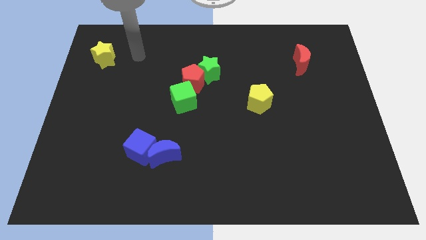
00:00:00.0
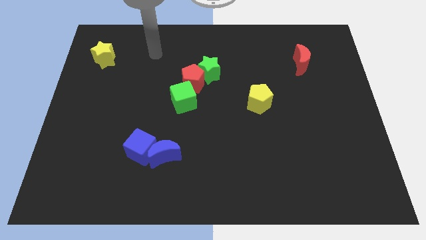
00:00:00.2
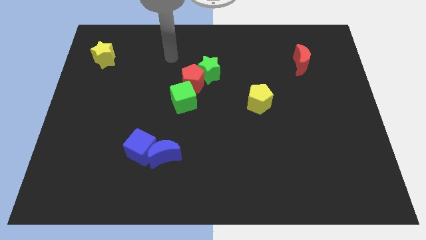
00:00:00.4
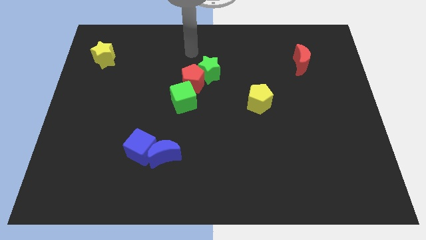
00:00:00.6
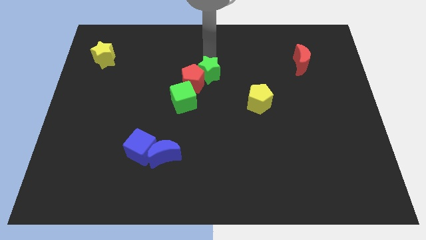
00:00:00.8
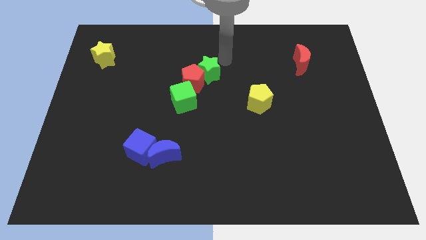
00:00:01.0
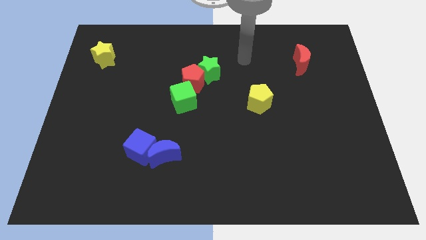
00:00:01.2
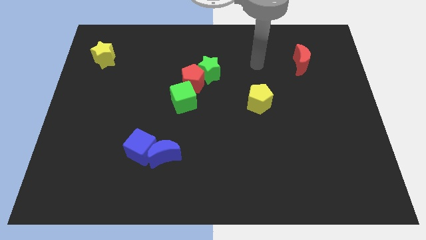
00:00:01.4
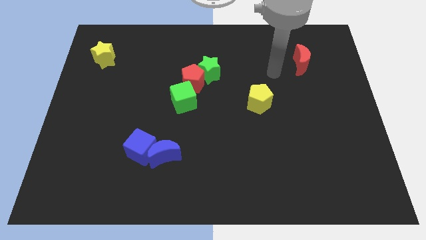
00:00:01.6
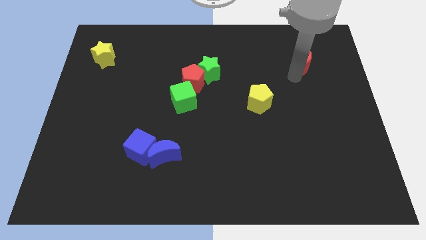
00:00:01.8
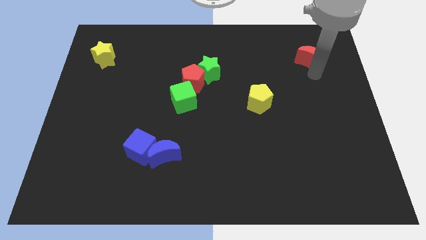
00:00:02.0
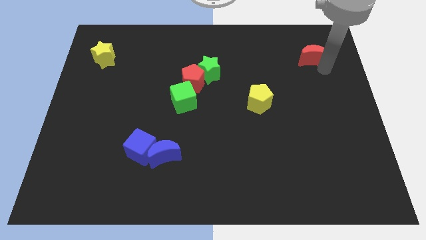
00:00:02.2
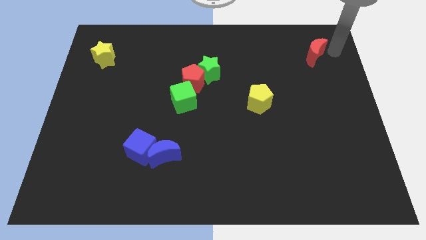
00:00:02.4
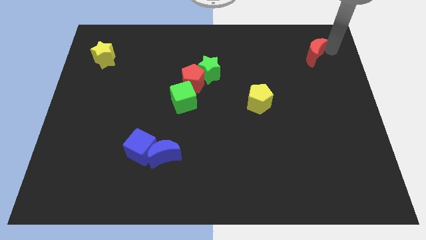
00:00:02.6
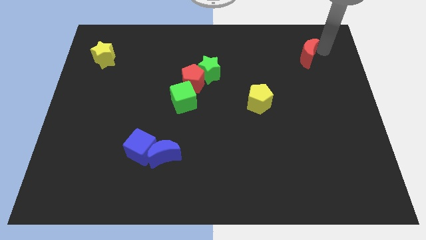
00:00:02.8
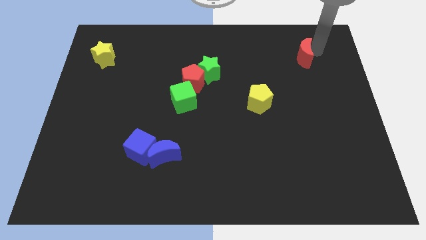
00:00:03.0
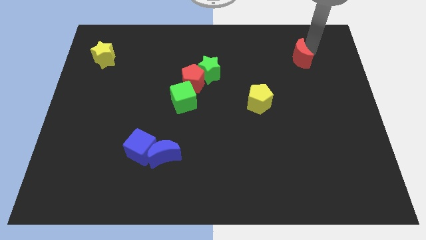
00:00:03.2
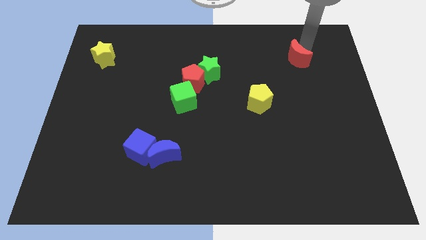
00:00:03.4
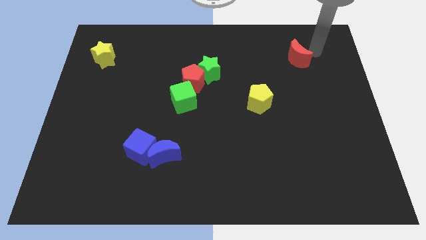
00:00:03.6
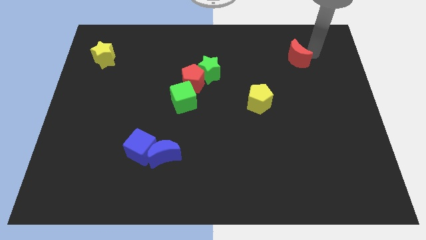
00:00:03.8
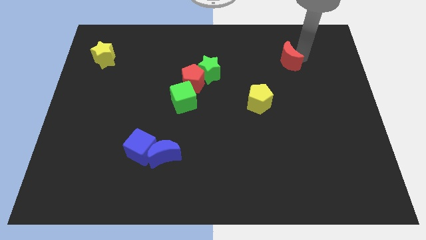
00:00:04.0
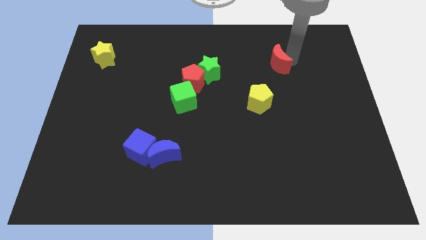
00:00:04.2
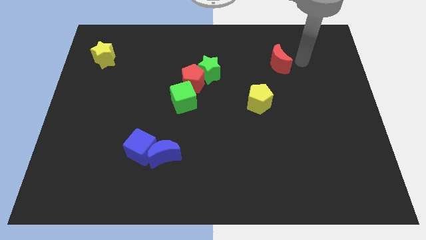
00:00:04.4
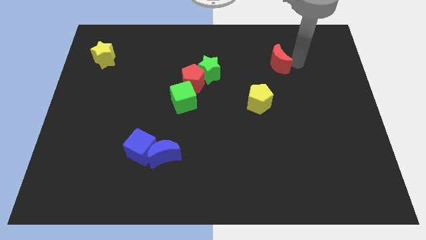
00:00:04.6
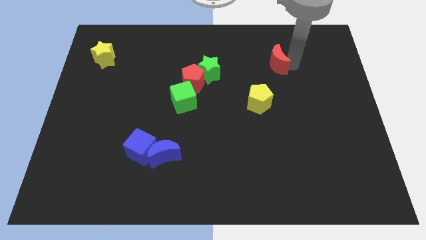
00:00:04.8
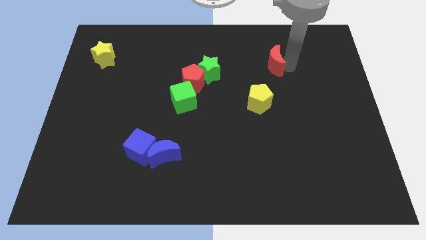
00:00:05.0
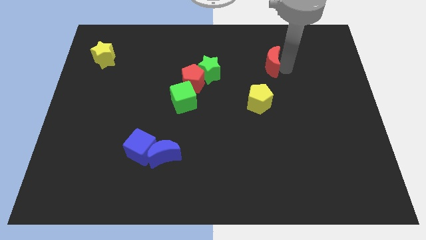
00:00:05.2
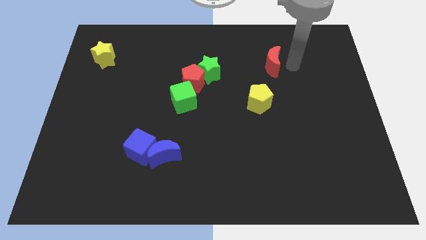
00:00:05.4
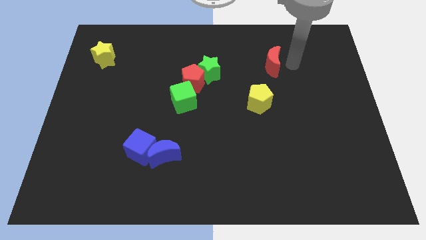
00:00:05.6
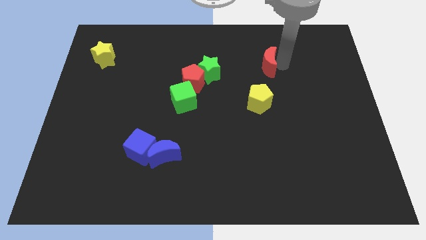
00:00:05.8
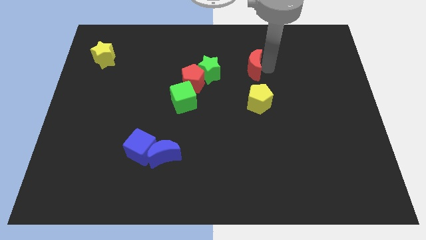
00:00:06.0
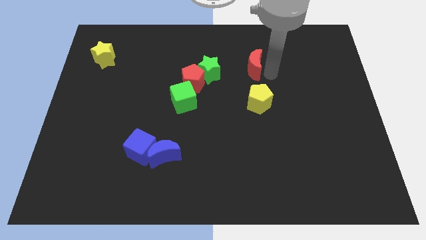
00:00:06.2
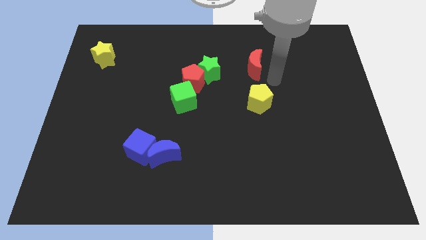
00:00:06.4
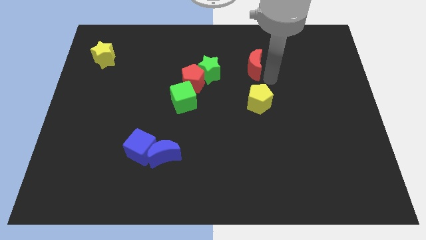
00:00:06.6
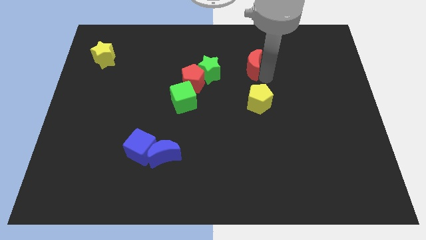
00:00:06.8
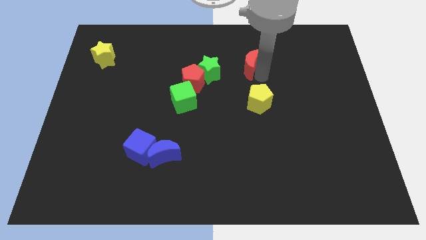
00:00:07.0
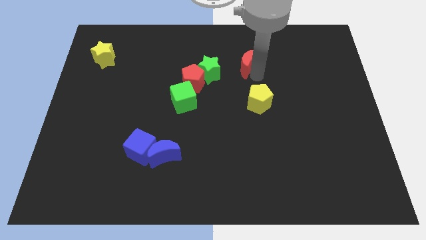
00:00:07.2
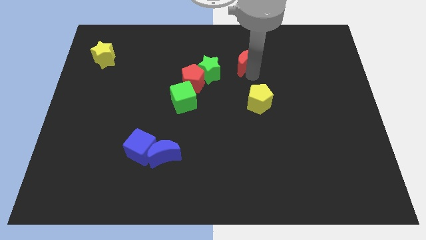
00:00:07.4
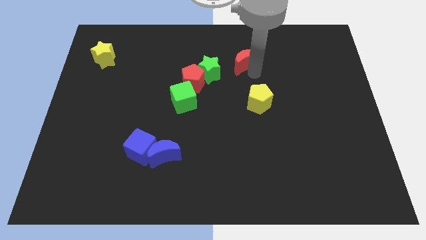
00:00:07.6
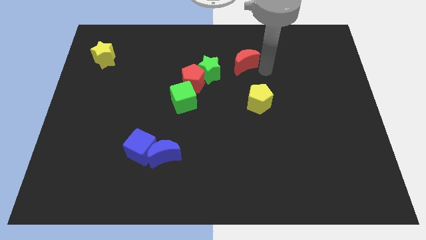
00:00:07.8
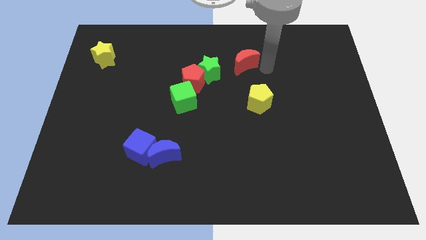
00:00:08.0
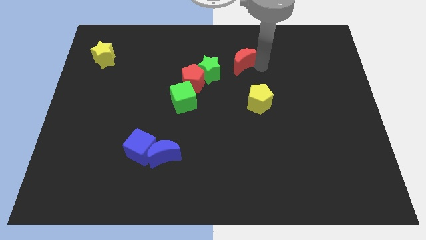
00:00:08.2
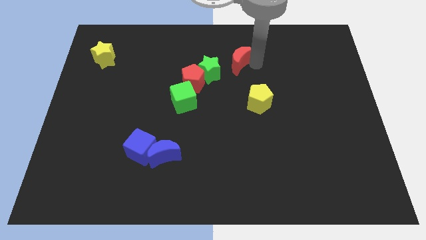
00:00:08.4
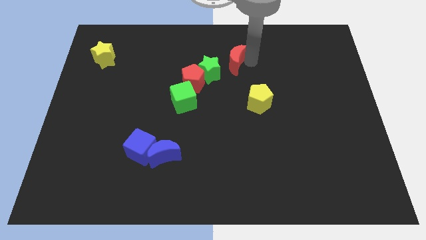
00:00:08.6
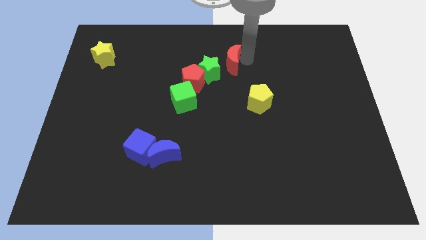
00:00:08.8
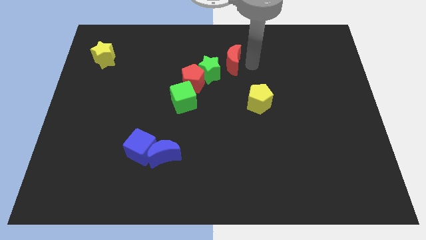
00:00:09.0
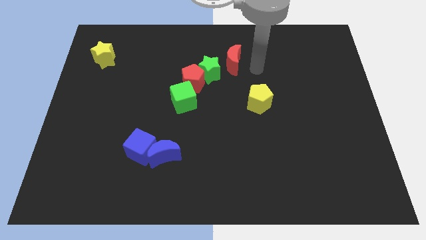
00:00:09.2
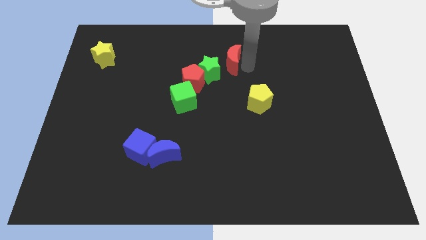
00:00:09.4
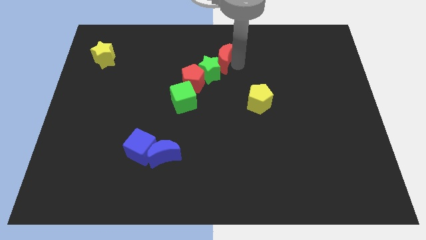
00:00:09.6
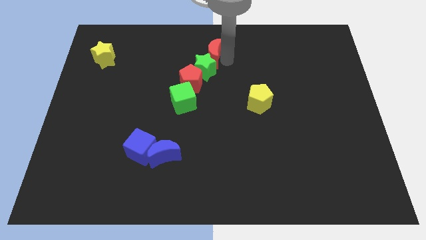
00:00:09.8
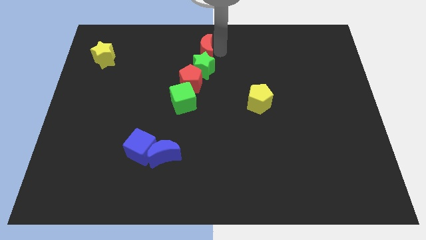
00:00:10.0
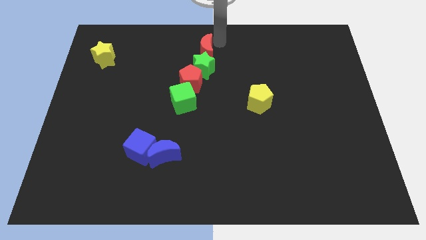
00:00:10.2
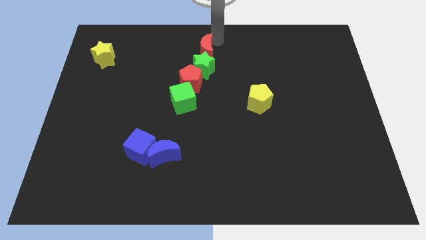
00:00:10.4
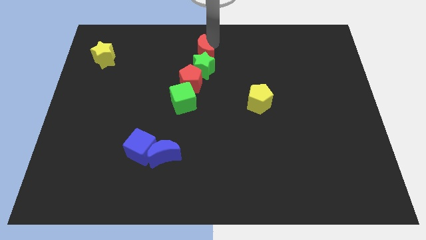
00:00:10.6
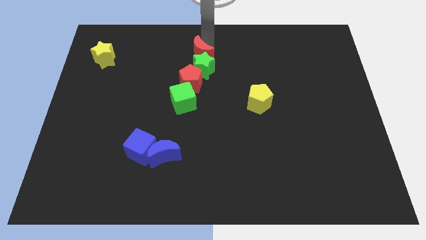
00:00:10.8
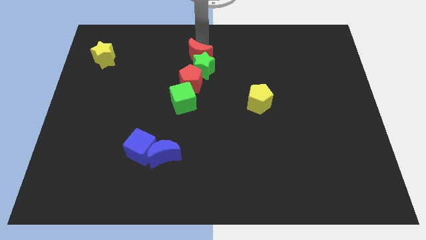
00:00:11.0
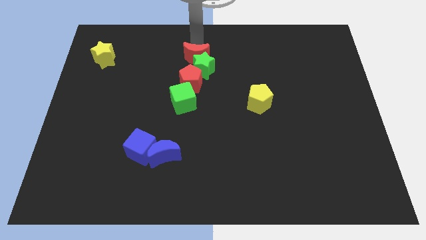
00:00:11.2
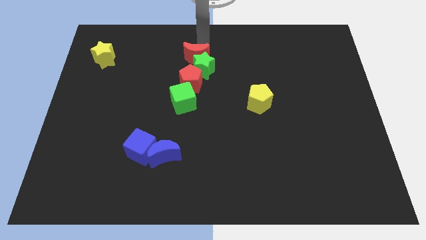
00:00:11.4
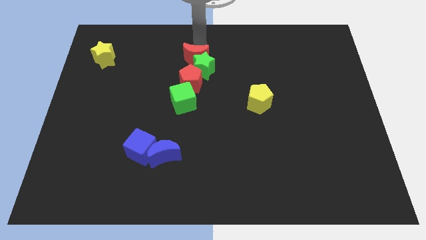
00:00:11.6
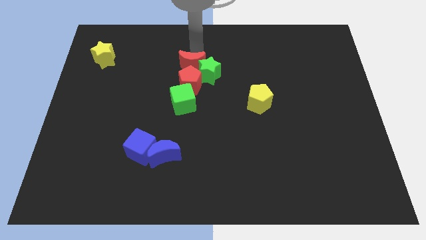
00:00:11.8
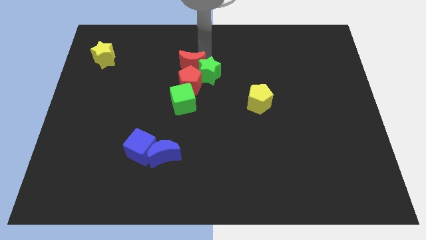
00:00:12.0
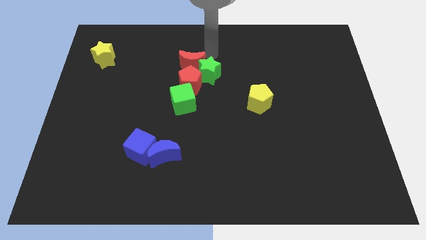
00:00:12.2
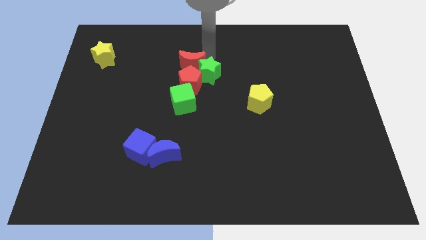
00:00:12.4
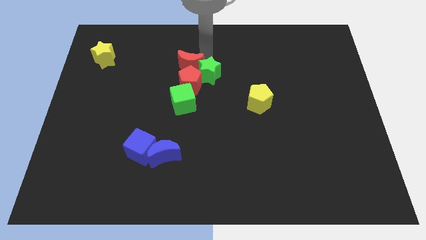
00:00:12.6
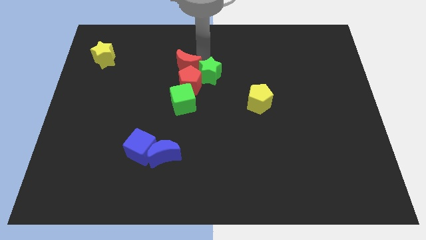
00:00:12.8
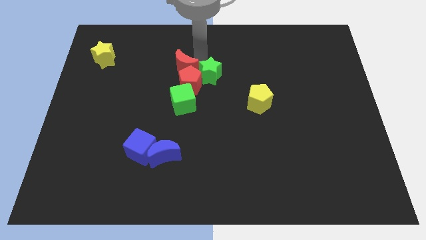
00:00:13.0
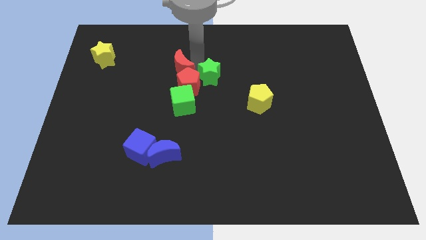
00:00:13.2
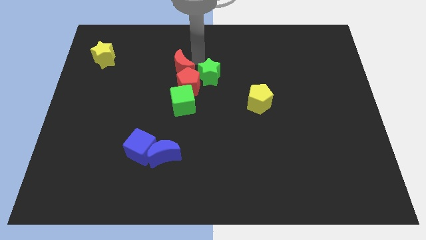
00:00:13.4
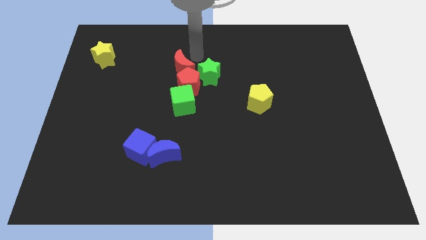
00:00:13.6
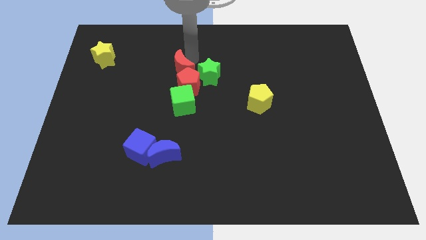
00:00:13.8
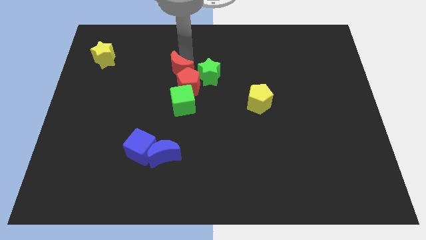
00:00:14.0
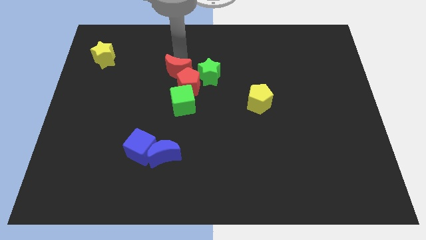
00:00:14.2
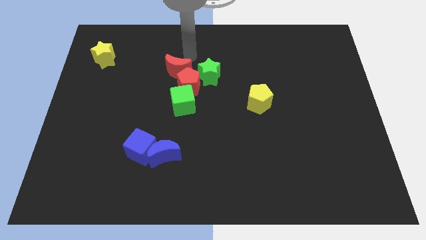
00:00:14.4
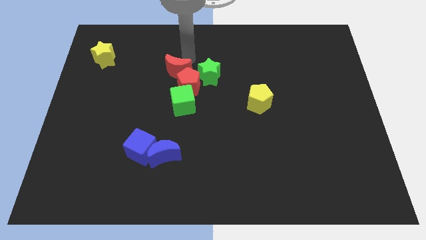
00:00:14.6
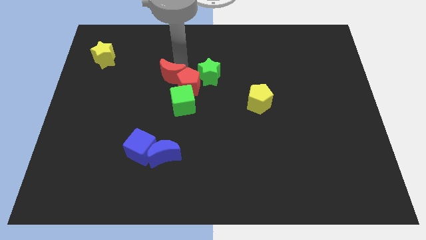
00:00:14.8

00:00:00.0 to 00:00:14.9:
put the red moon to the top left side of the green cube
